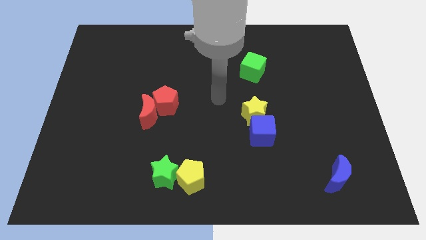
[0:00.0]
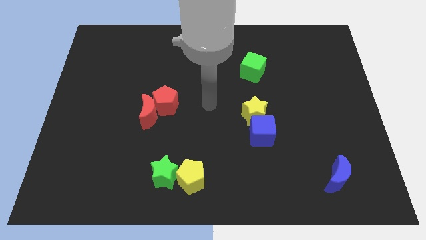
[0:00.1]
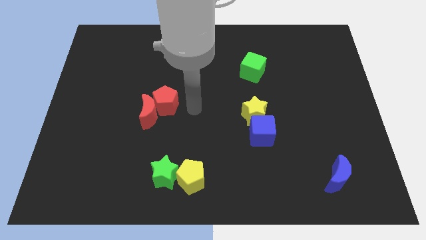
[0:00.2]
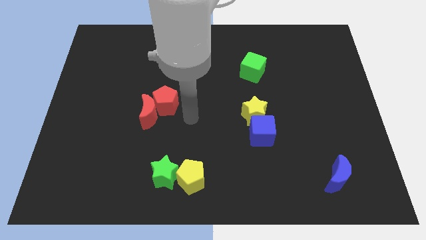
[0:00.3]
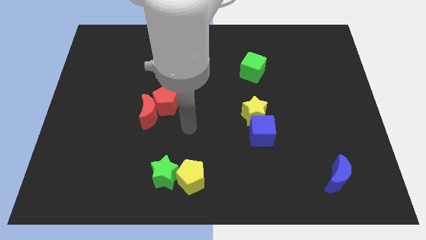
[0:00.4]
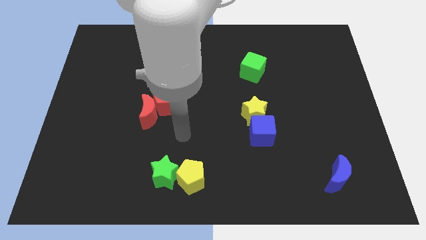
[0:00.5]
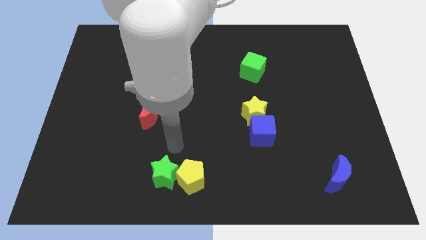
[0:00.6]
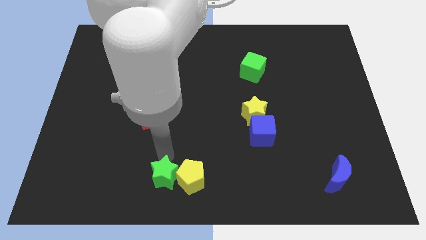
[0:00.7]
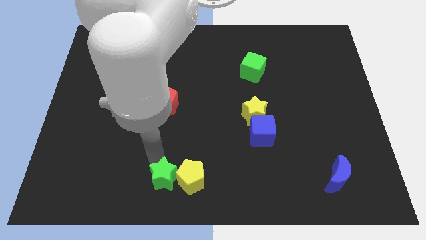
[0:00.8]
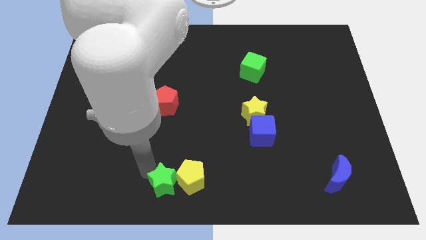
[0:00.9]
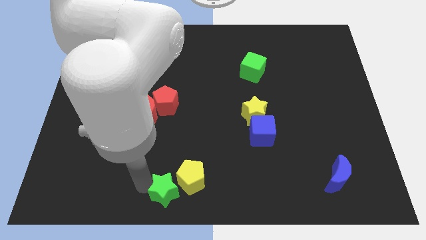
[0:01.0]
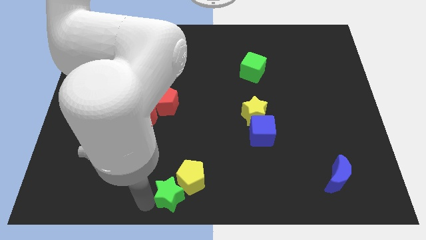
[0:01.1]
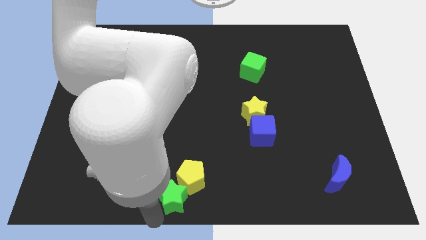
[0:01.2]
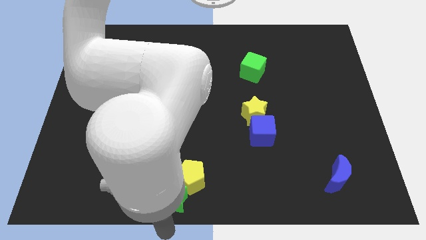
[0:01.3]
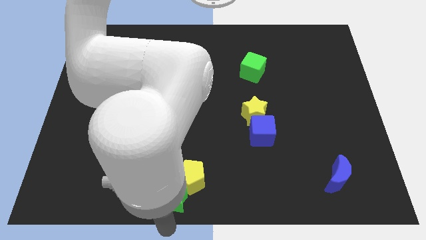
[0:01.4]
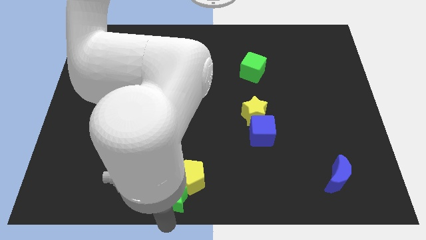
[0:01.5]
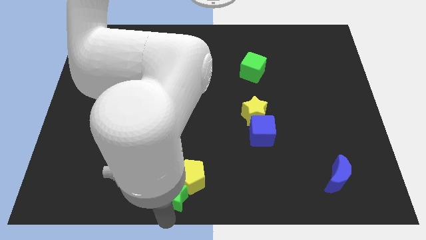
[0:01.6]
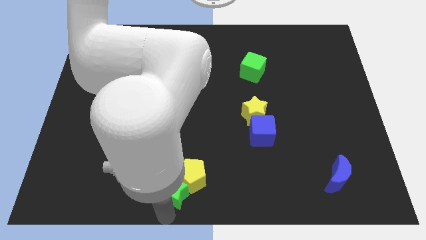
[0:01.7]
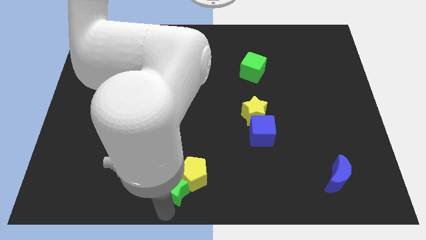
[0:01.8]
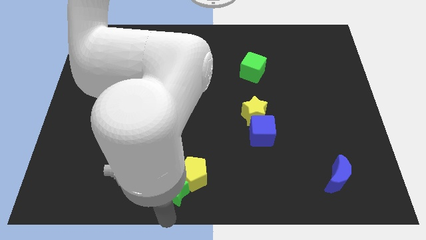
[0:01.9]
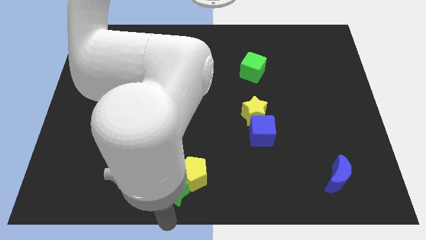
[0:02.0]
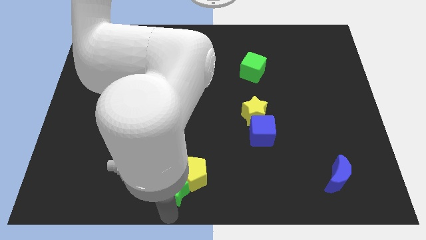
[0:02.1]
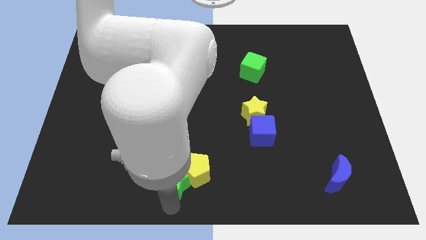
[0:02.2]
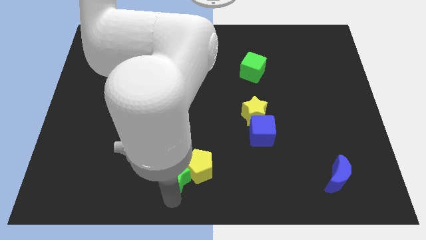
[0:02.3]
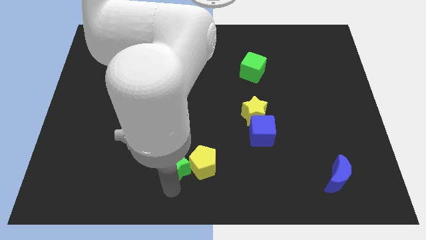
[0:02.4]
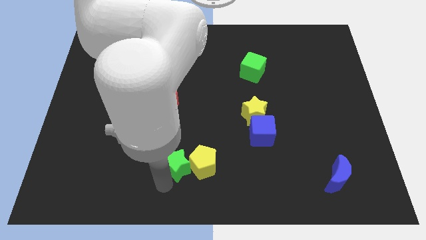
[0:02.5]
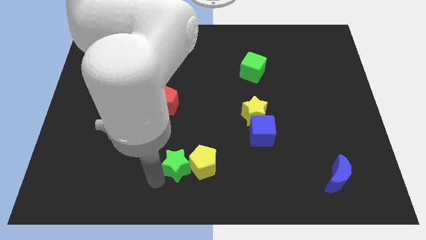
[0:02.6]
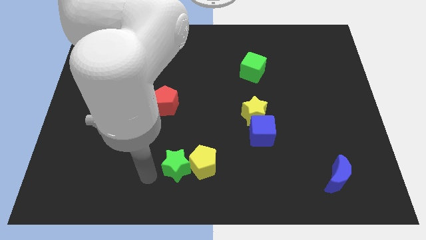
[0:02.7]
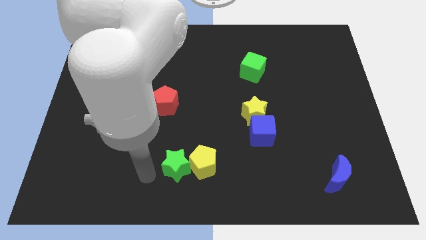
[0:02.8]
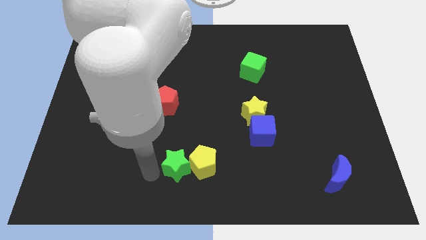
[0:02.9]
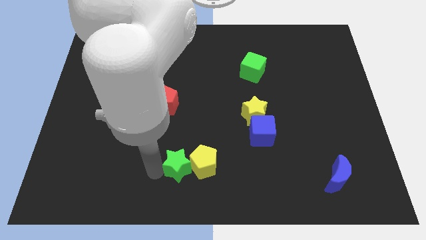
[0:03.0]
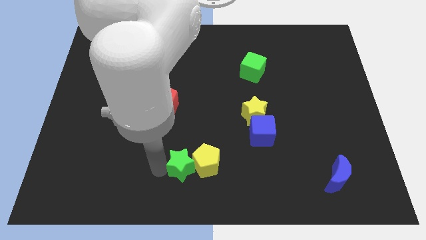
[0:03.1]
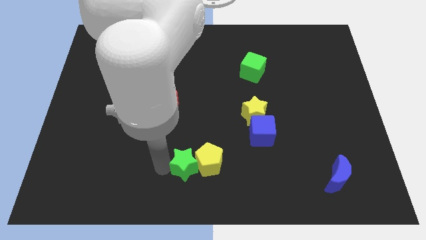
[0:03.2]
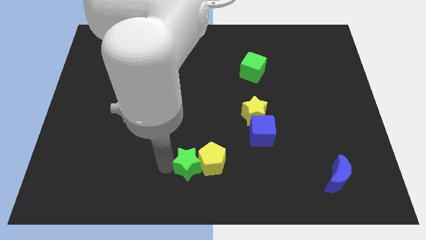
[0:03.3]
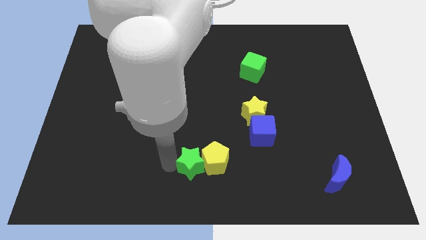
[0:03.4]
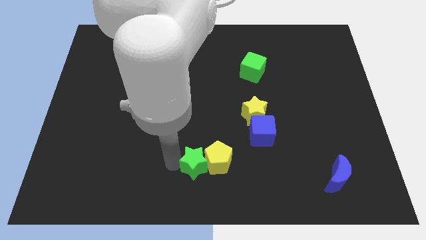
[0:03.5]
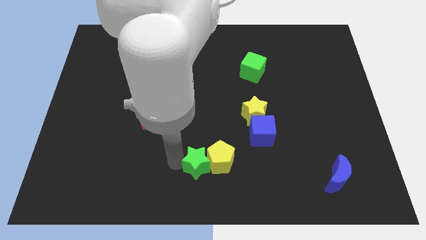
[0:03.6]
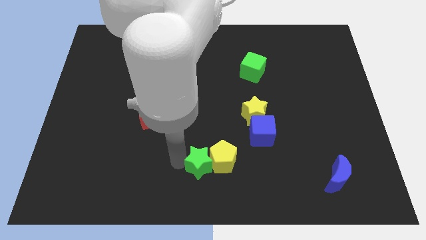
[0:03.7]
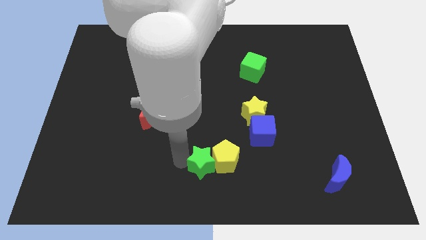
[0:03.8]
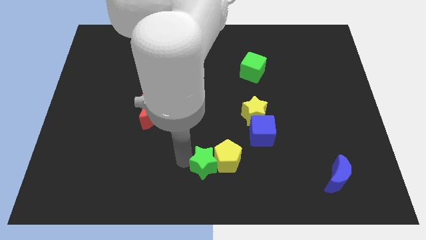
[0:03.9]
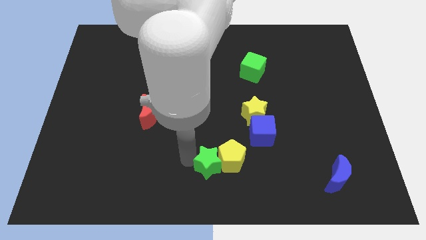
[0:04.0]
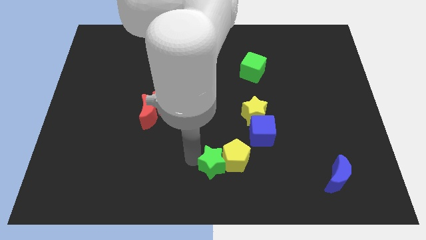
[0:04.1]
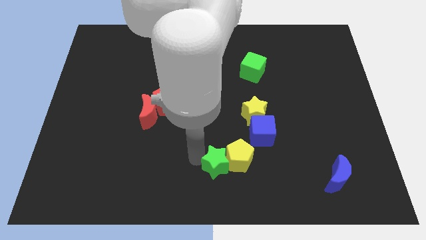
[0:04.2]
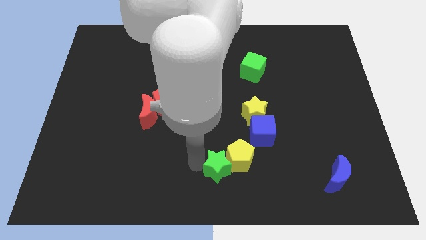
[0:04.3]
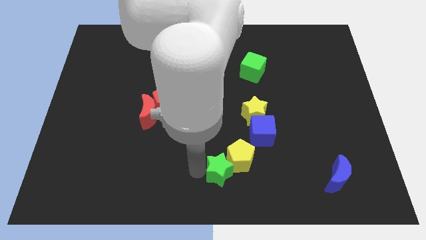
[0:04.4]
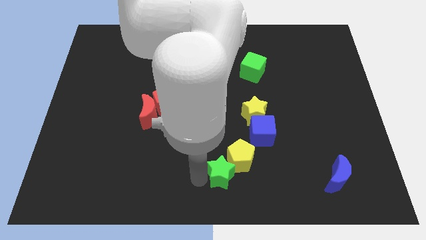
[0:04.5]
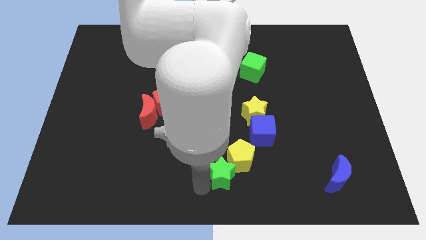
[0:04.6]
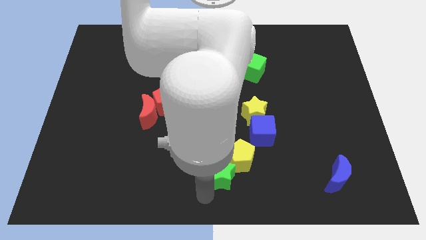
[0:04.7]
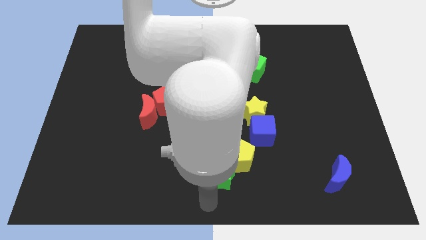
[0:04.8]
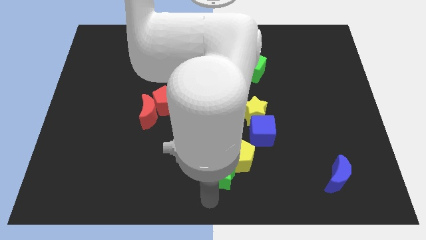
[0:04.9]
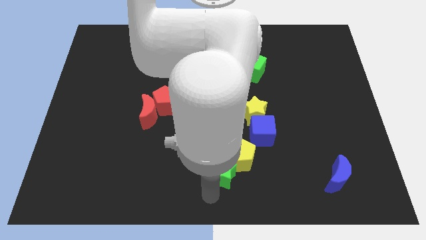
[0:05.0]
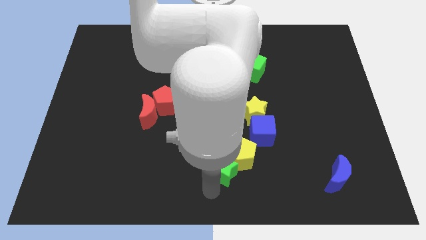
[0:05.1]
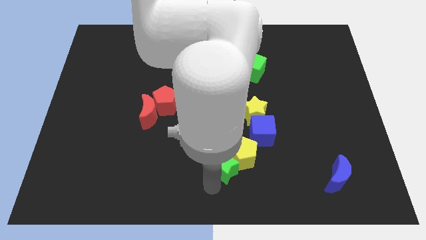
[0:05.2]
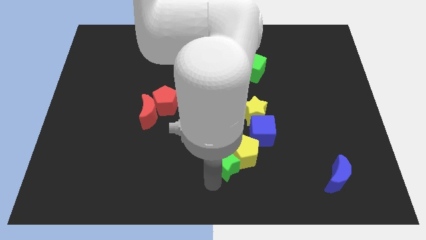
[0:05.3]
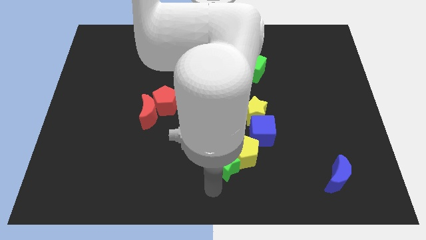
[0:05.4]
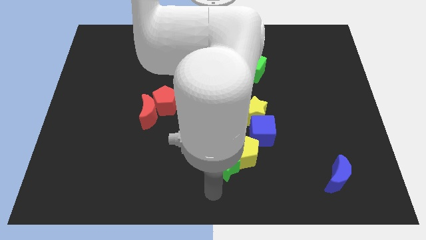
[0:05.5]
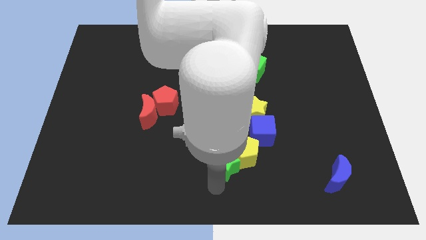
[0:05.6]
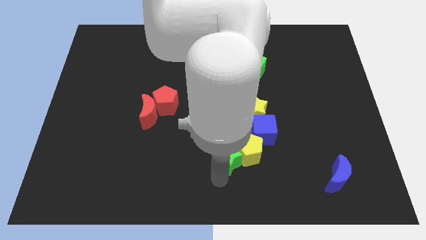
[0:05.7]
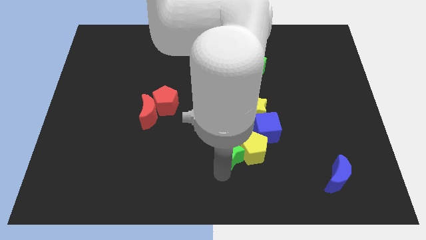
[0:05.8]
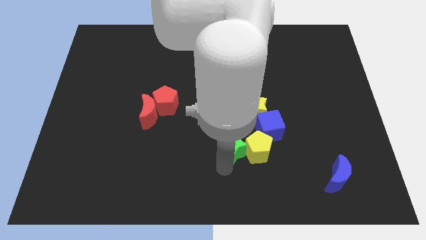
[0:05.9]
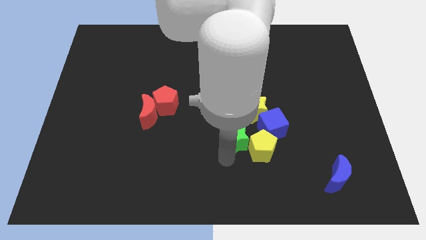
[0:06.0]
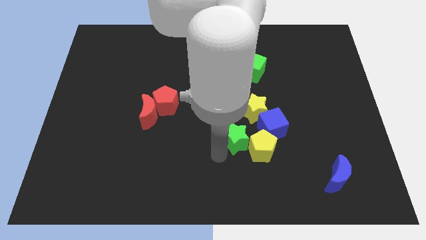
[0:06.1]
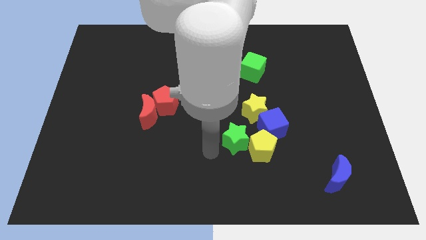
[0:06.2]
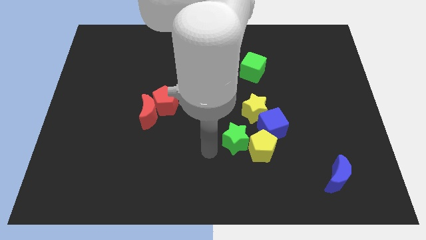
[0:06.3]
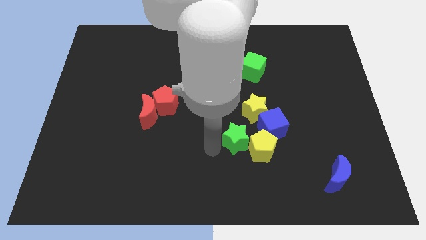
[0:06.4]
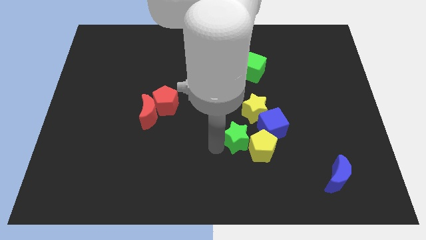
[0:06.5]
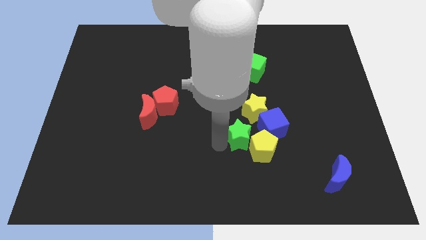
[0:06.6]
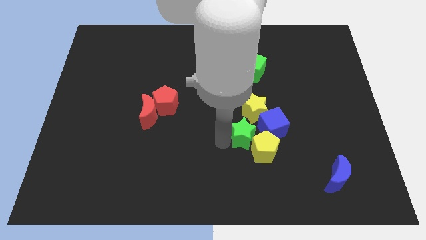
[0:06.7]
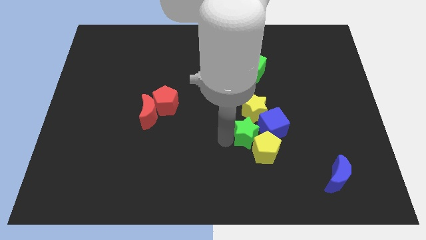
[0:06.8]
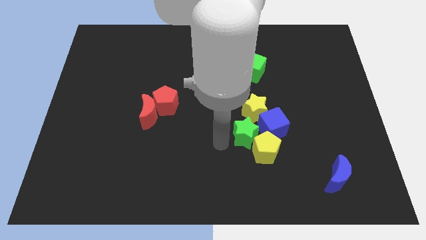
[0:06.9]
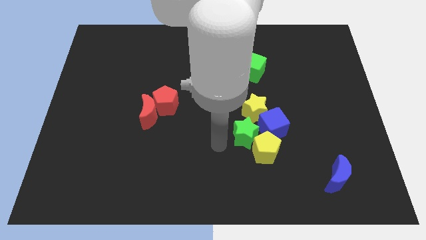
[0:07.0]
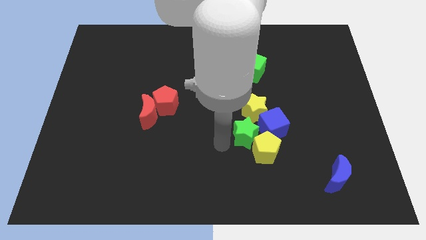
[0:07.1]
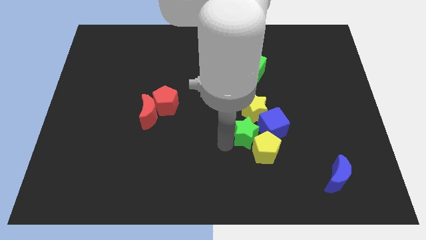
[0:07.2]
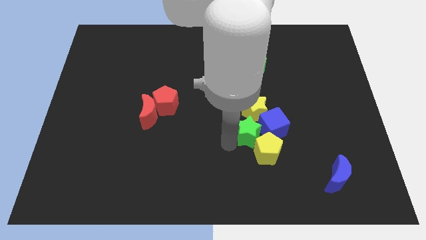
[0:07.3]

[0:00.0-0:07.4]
push the green star towards the blue cube
